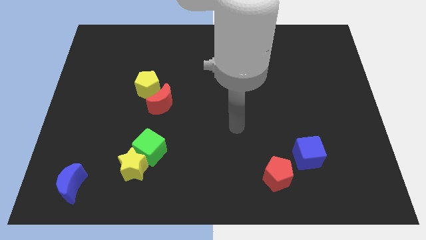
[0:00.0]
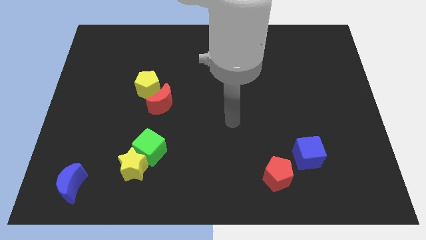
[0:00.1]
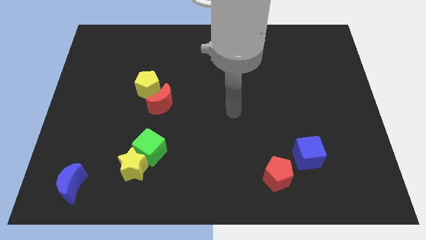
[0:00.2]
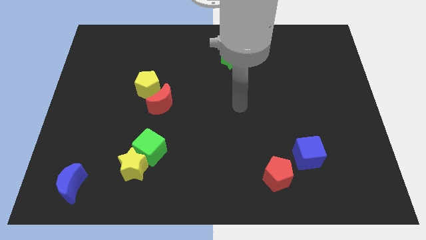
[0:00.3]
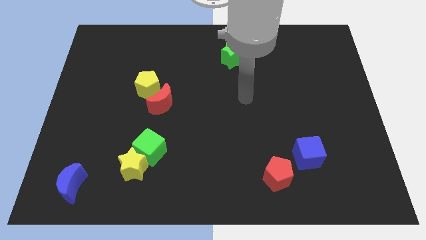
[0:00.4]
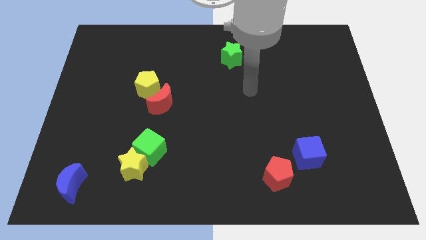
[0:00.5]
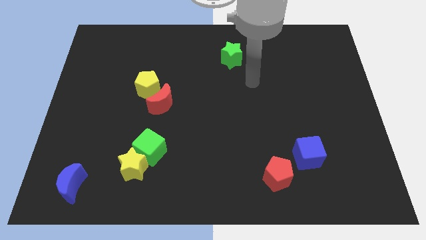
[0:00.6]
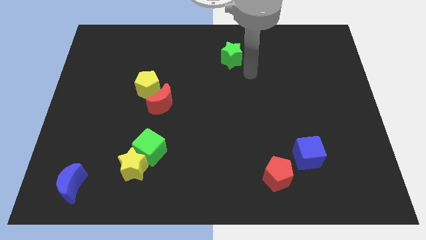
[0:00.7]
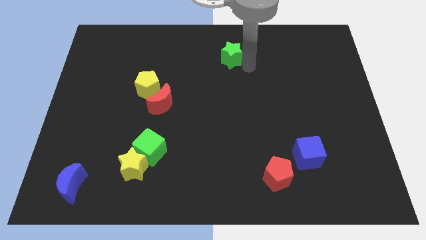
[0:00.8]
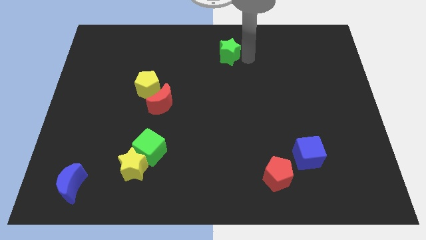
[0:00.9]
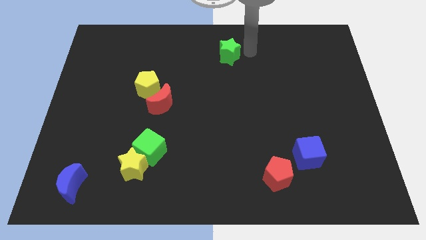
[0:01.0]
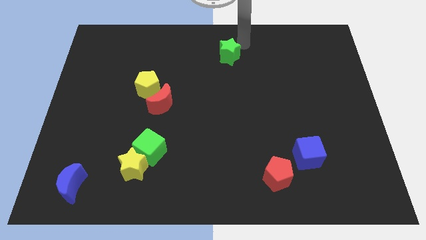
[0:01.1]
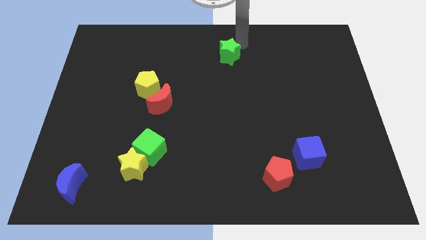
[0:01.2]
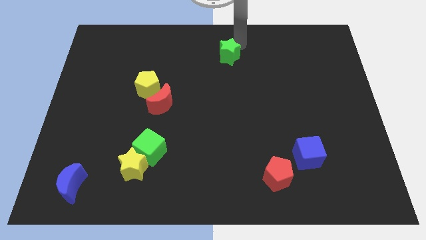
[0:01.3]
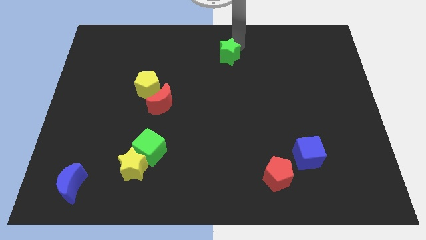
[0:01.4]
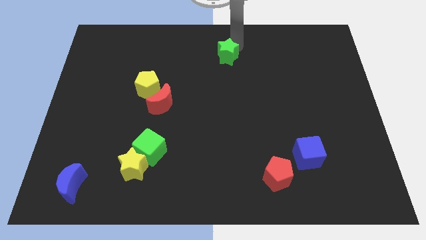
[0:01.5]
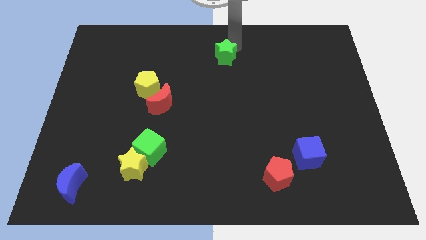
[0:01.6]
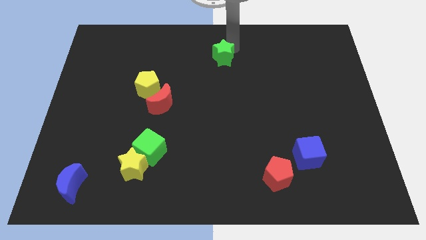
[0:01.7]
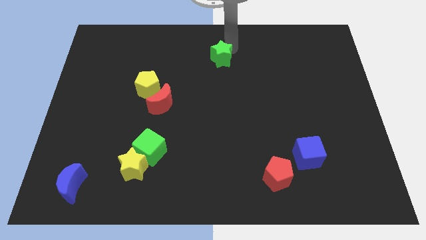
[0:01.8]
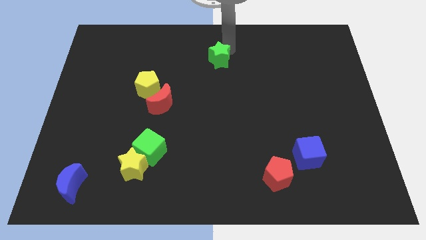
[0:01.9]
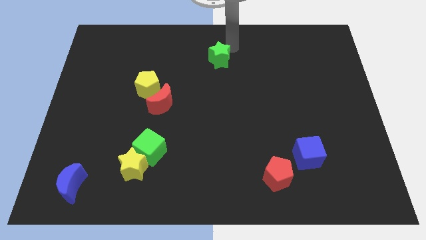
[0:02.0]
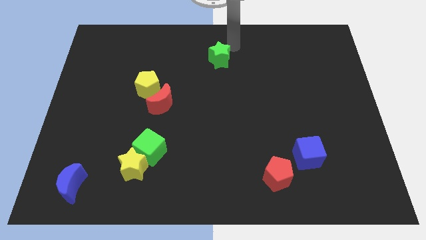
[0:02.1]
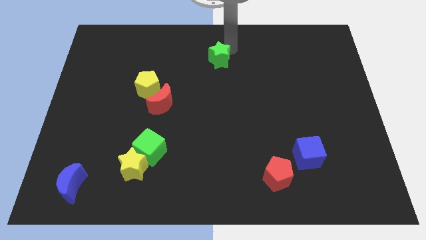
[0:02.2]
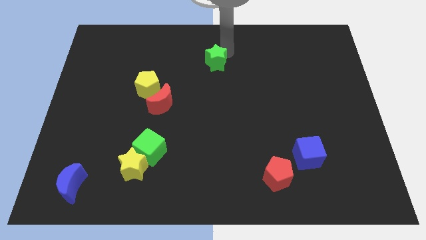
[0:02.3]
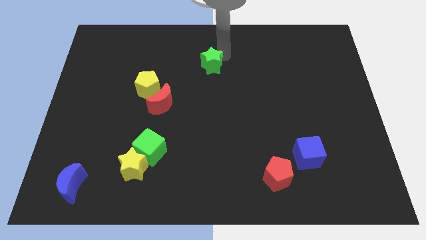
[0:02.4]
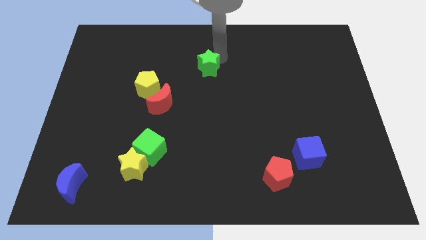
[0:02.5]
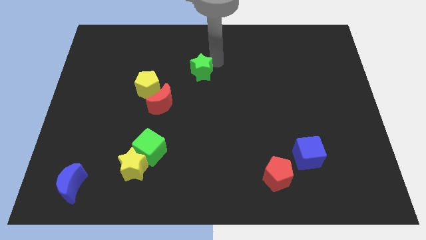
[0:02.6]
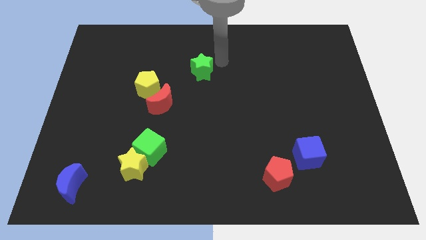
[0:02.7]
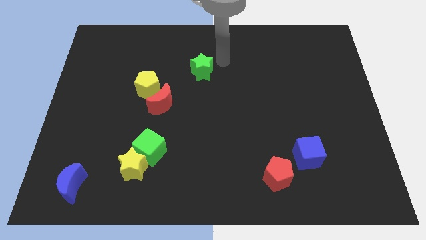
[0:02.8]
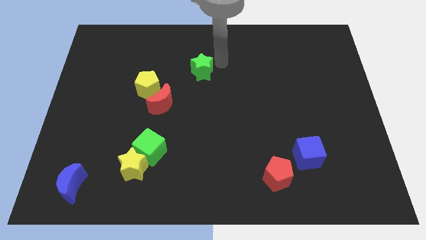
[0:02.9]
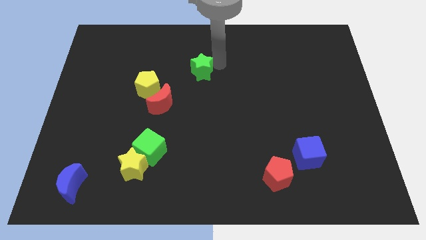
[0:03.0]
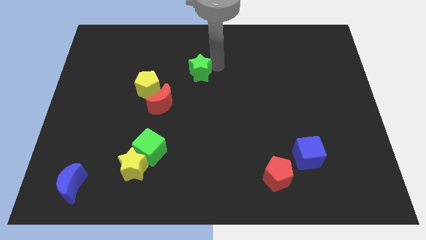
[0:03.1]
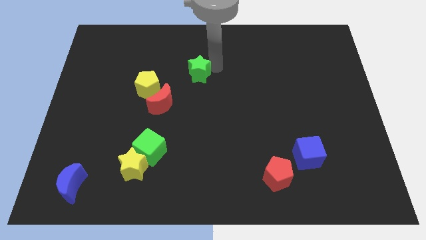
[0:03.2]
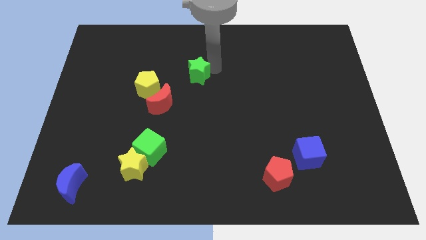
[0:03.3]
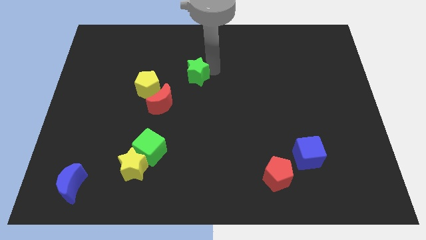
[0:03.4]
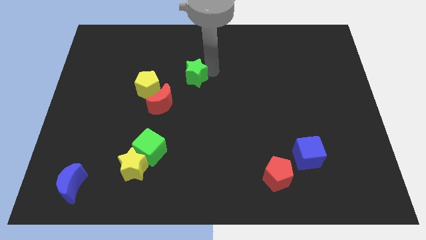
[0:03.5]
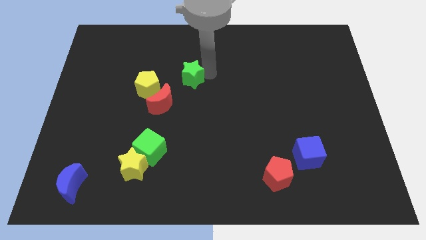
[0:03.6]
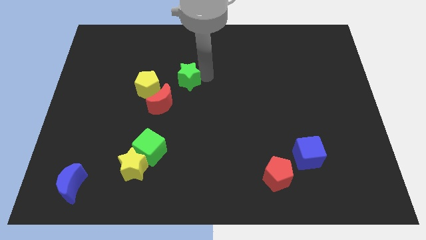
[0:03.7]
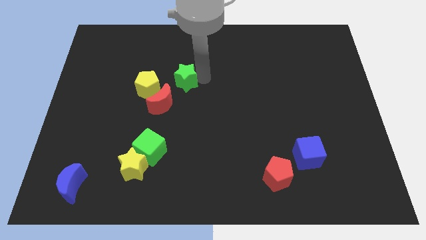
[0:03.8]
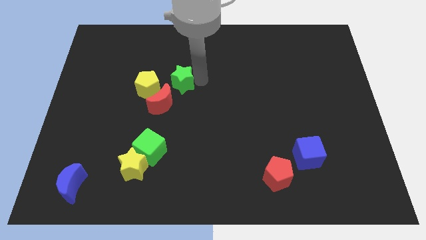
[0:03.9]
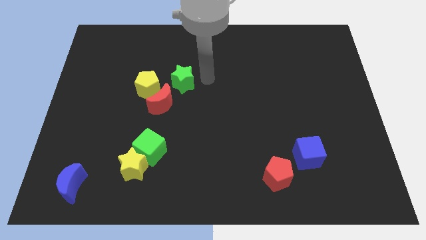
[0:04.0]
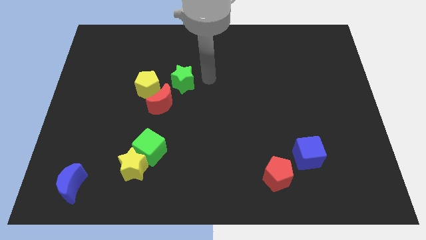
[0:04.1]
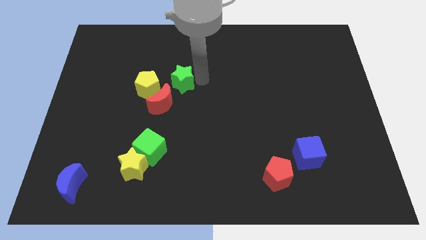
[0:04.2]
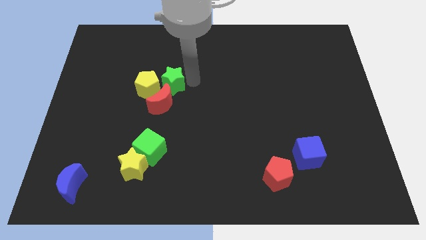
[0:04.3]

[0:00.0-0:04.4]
push the green star to the yellow pentagon

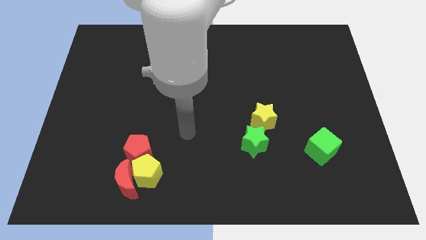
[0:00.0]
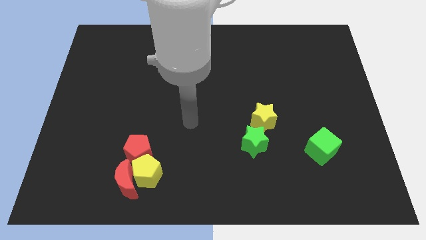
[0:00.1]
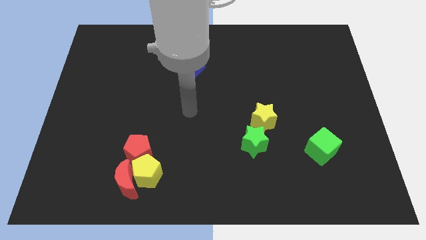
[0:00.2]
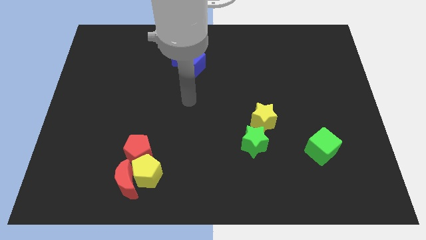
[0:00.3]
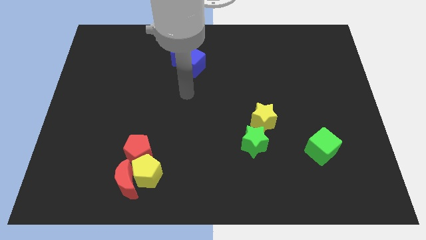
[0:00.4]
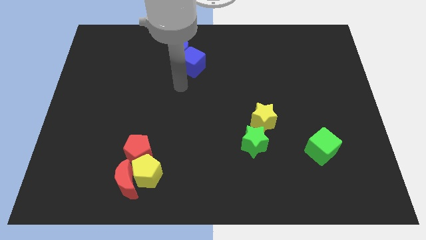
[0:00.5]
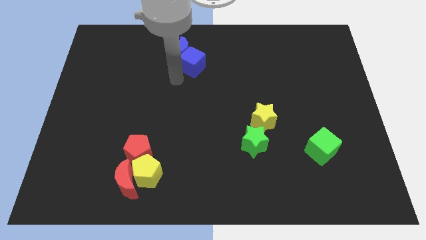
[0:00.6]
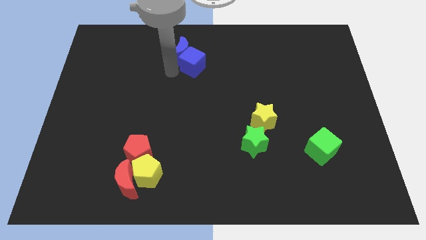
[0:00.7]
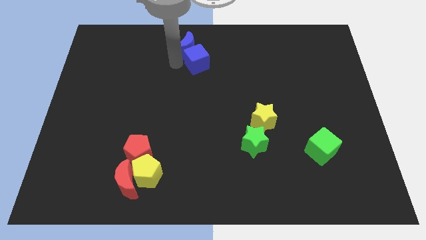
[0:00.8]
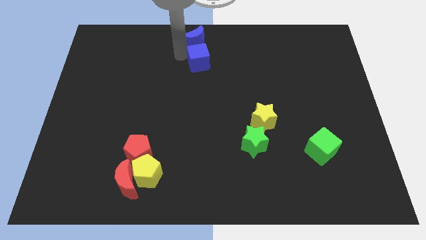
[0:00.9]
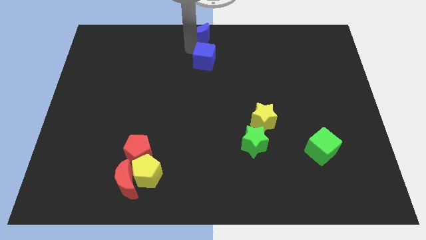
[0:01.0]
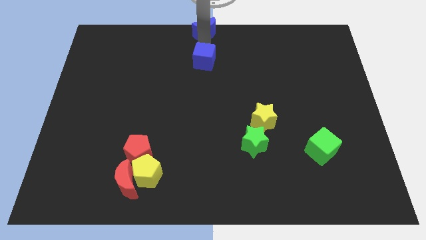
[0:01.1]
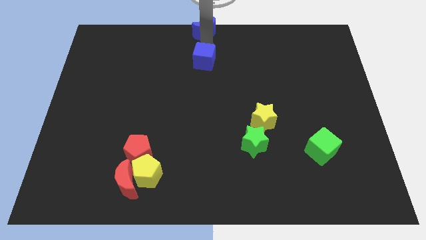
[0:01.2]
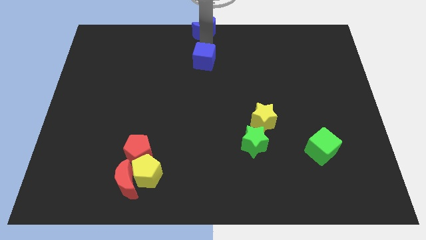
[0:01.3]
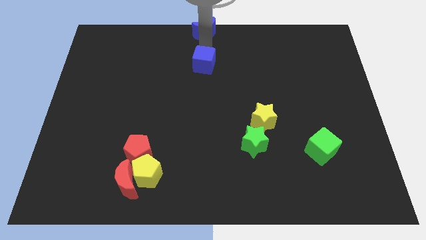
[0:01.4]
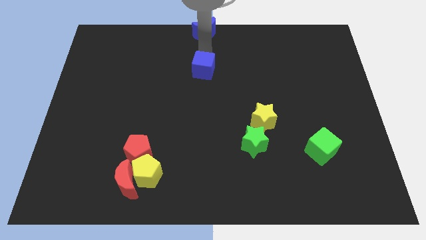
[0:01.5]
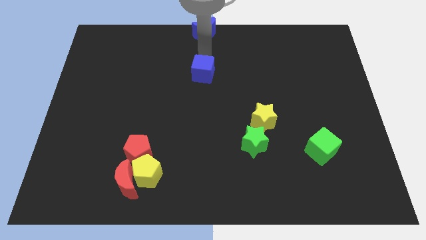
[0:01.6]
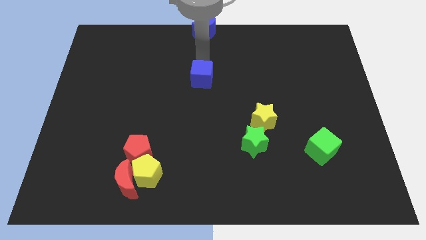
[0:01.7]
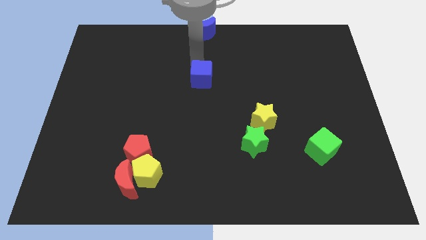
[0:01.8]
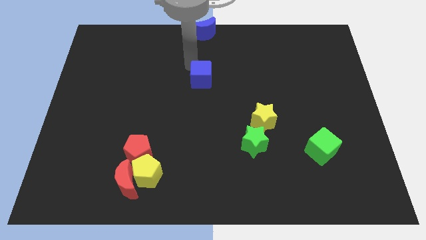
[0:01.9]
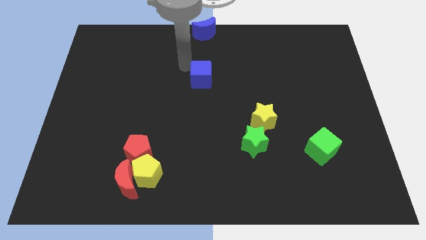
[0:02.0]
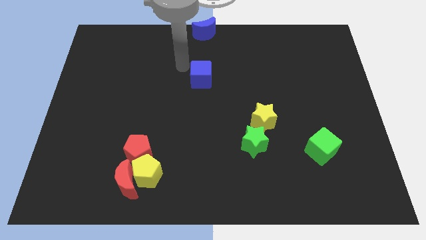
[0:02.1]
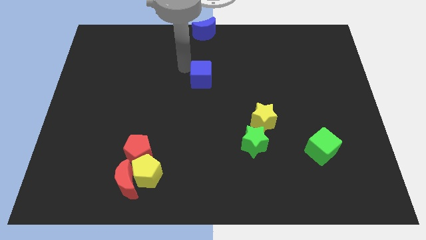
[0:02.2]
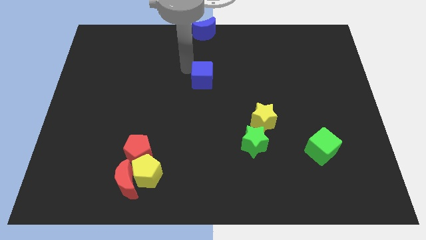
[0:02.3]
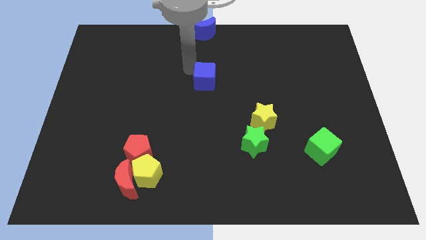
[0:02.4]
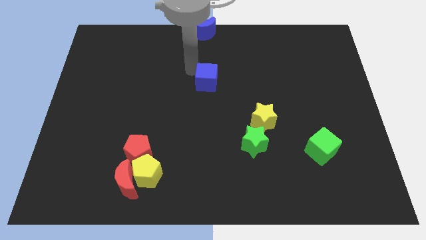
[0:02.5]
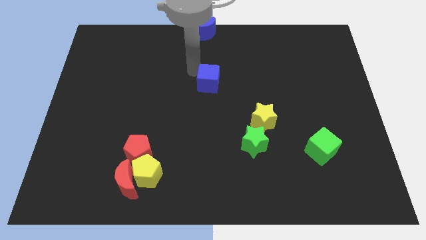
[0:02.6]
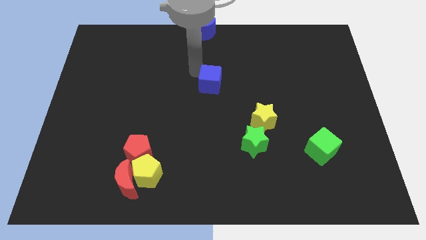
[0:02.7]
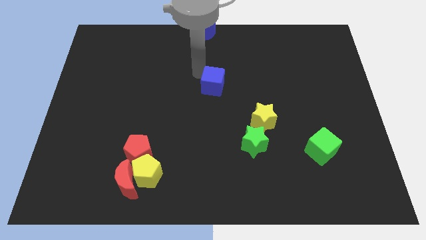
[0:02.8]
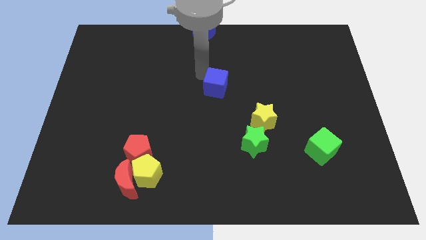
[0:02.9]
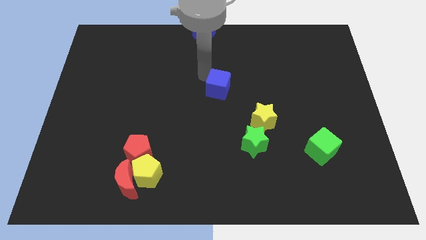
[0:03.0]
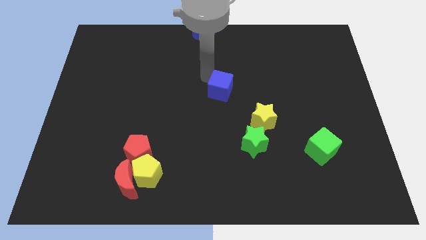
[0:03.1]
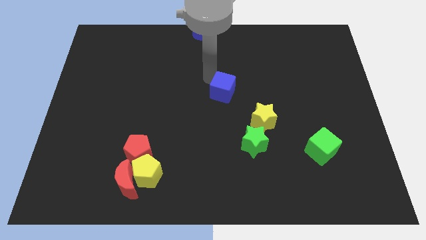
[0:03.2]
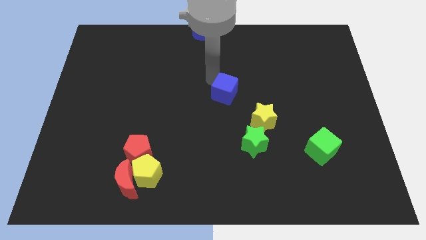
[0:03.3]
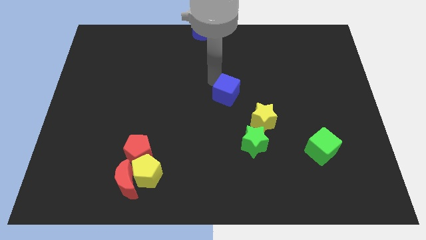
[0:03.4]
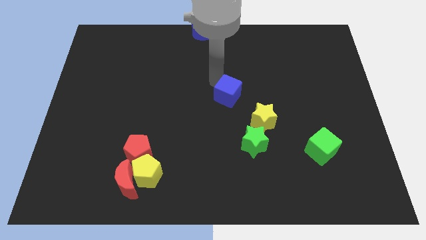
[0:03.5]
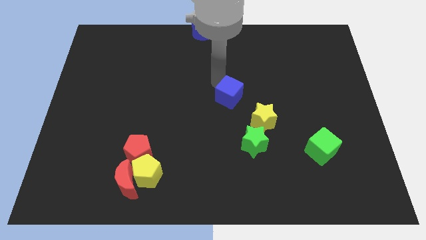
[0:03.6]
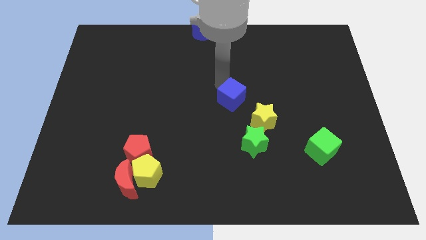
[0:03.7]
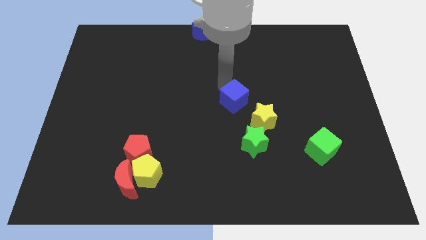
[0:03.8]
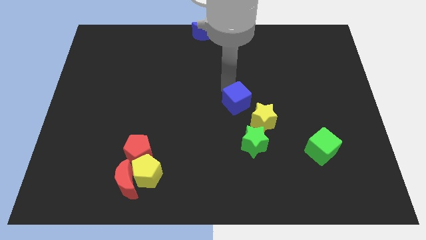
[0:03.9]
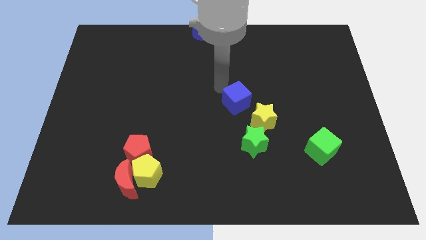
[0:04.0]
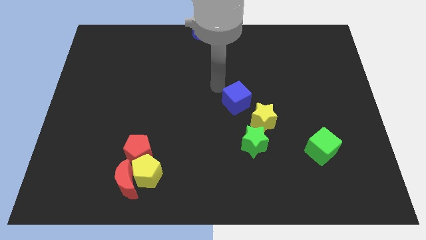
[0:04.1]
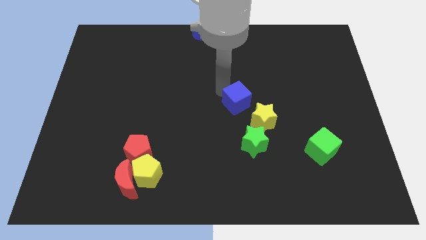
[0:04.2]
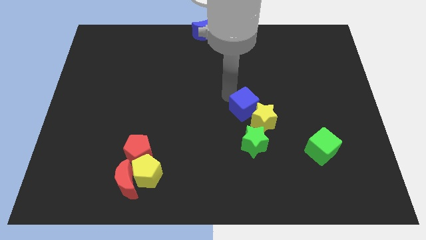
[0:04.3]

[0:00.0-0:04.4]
put the blue cube next to the yellow star
